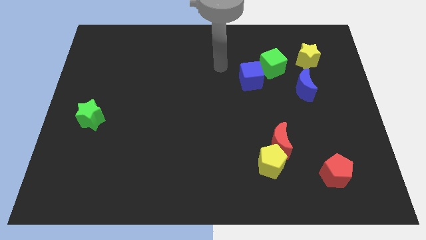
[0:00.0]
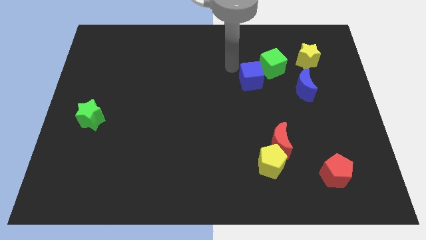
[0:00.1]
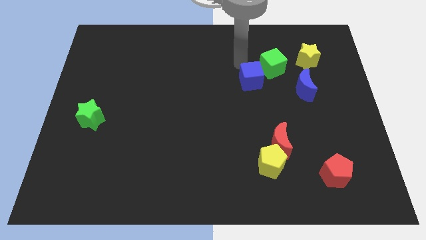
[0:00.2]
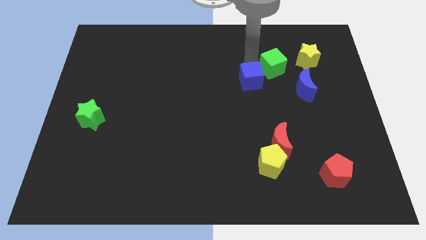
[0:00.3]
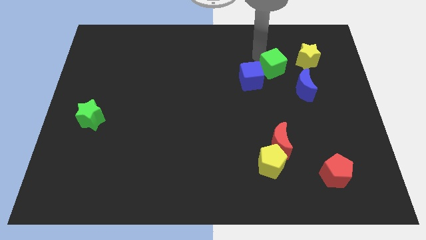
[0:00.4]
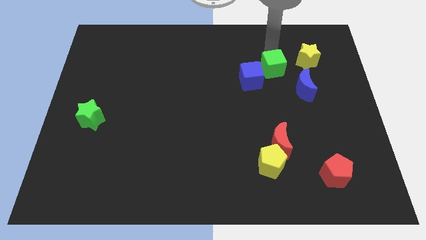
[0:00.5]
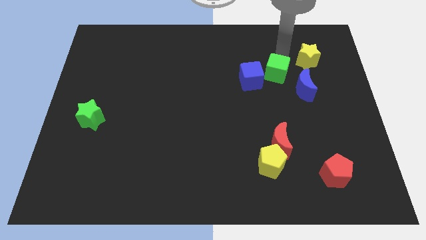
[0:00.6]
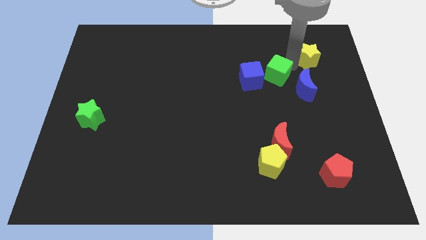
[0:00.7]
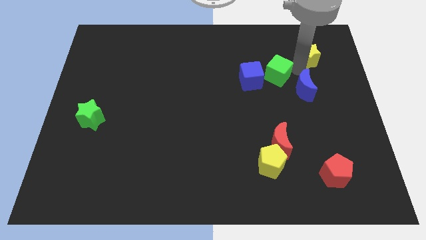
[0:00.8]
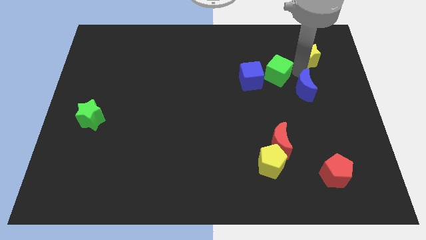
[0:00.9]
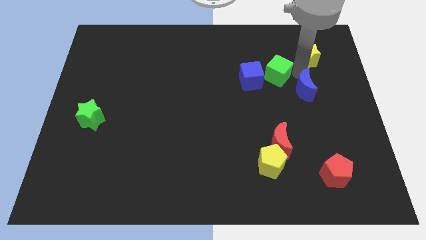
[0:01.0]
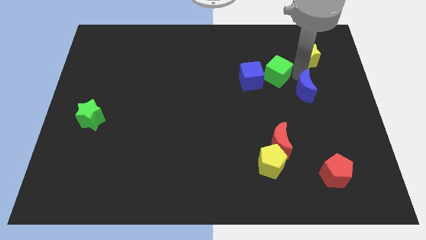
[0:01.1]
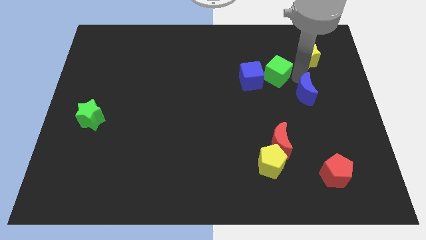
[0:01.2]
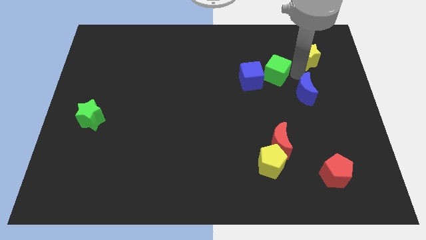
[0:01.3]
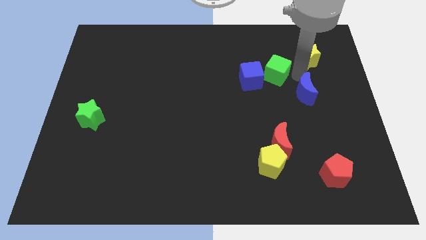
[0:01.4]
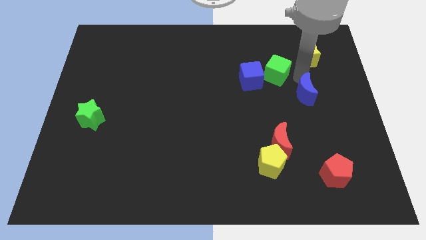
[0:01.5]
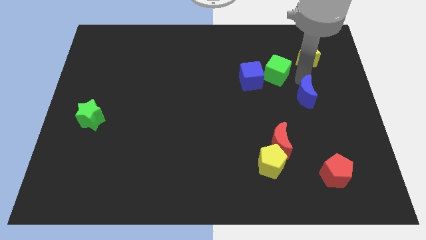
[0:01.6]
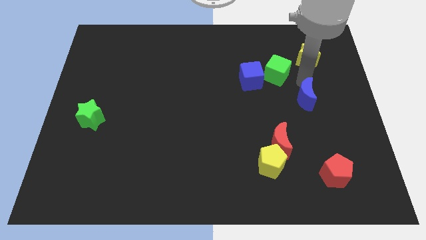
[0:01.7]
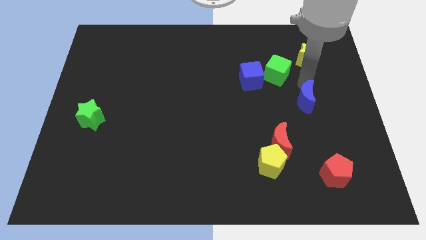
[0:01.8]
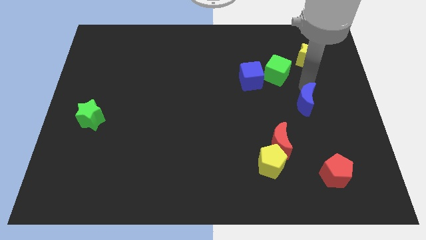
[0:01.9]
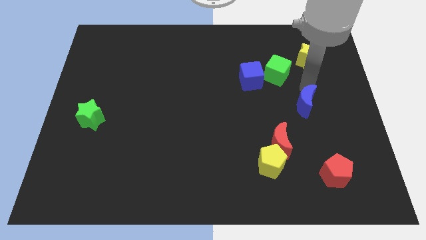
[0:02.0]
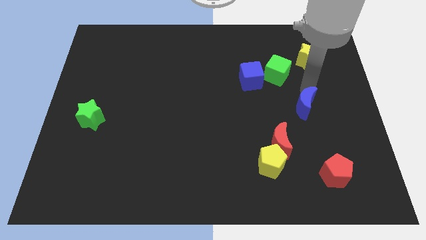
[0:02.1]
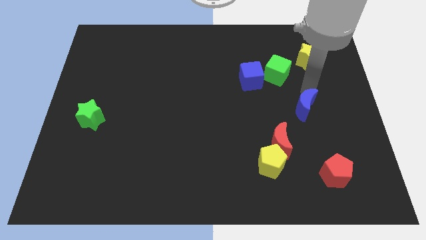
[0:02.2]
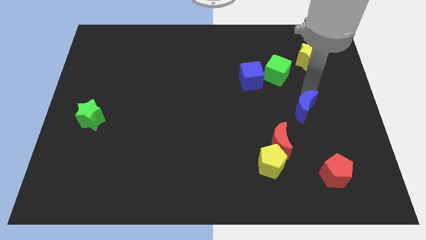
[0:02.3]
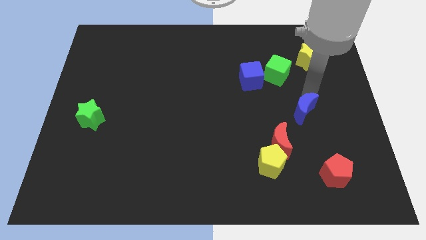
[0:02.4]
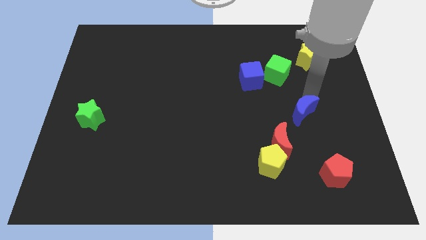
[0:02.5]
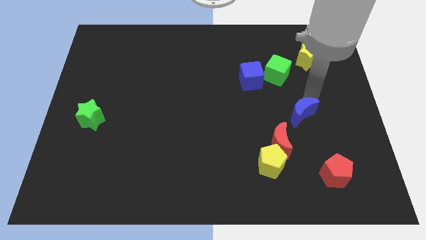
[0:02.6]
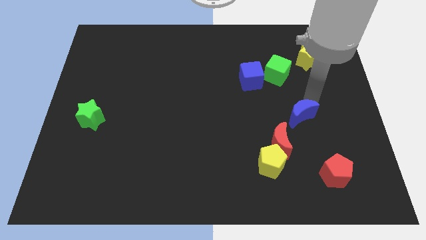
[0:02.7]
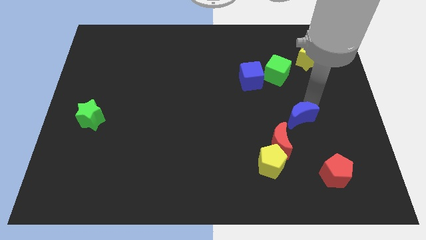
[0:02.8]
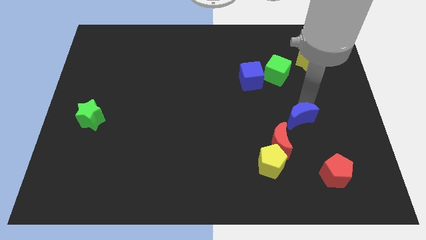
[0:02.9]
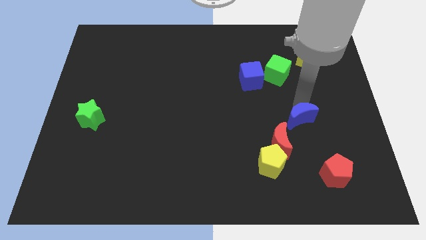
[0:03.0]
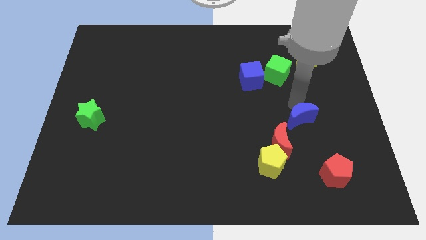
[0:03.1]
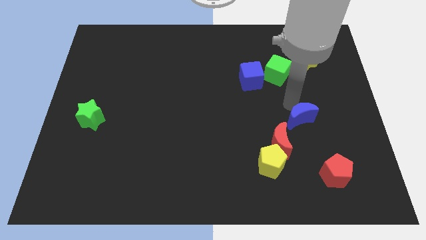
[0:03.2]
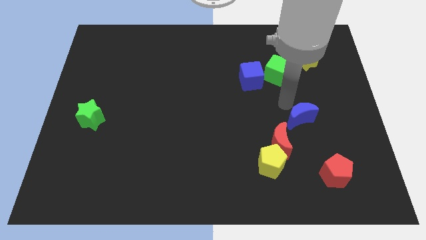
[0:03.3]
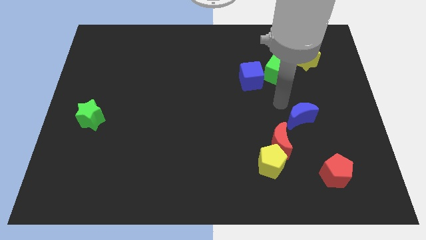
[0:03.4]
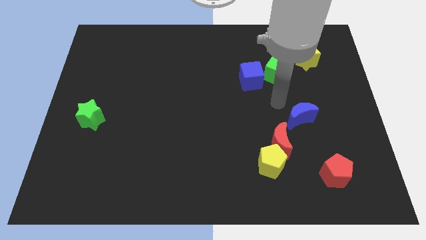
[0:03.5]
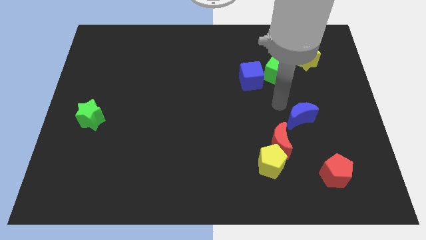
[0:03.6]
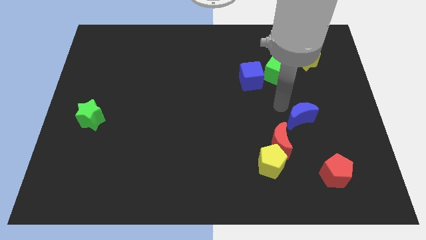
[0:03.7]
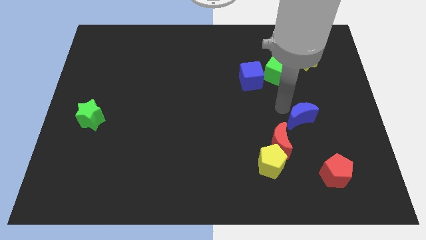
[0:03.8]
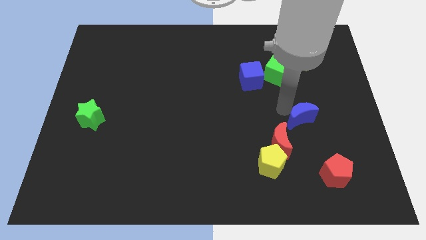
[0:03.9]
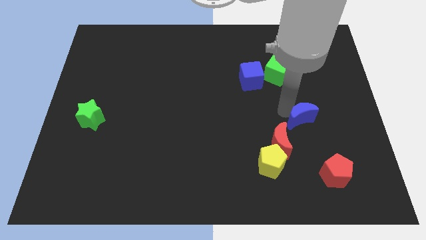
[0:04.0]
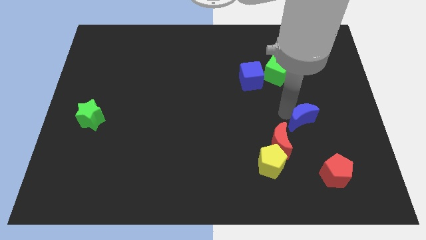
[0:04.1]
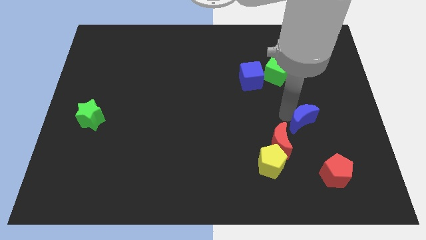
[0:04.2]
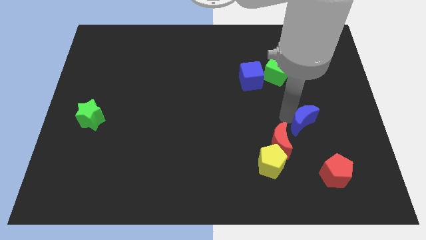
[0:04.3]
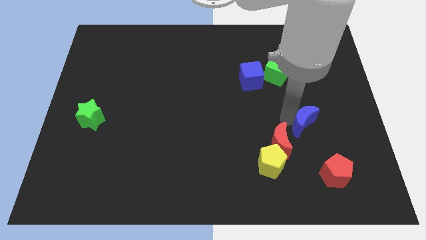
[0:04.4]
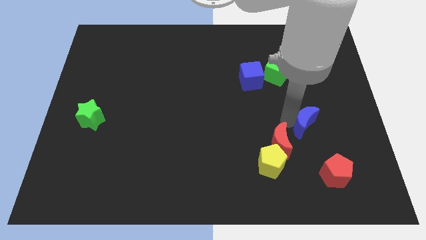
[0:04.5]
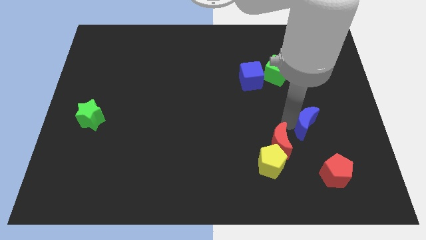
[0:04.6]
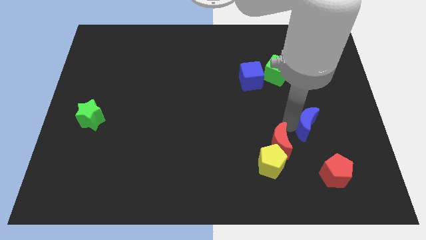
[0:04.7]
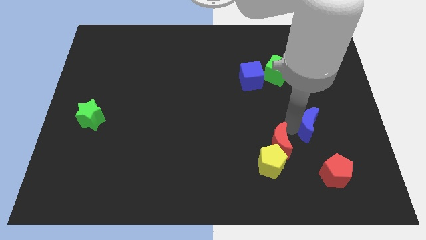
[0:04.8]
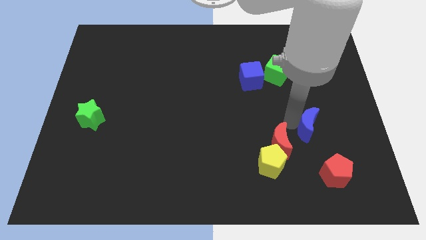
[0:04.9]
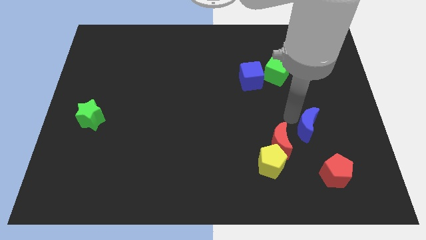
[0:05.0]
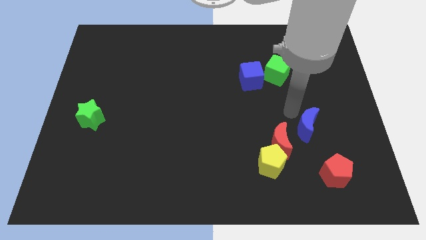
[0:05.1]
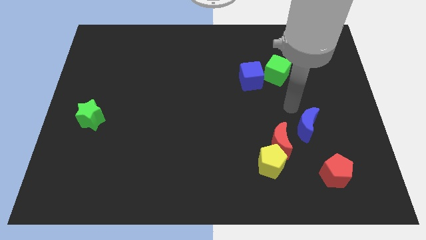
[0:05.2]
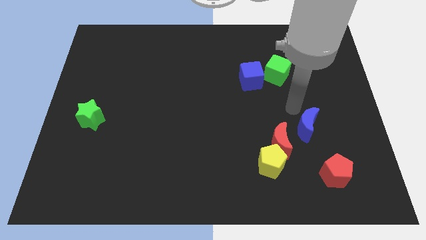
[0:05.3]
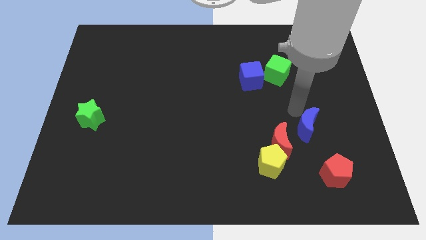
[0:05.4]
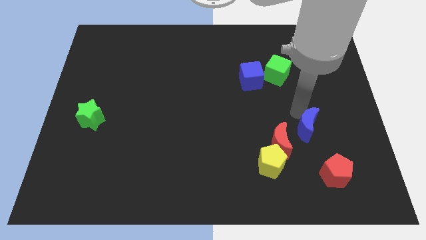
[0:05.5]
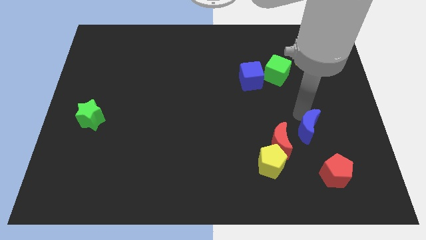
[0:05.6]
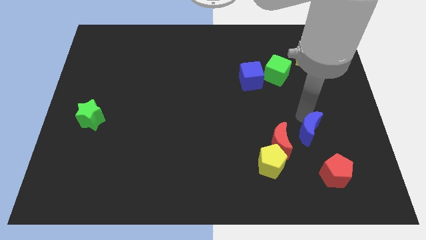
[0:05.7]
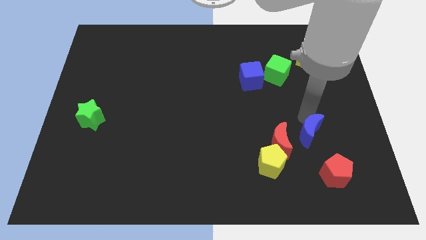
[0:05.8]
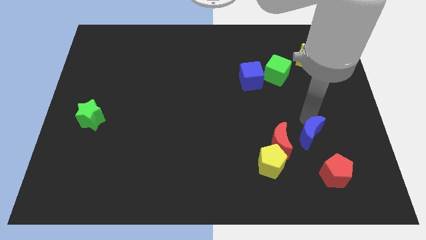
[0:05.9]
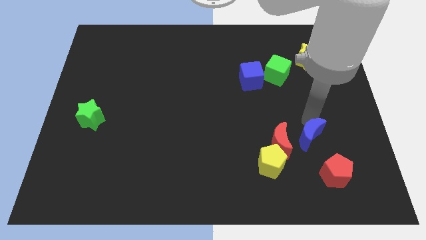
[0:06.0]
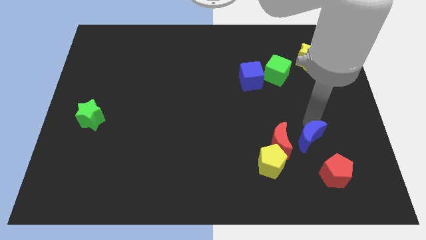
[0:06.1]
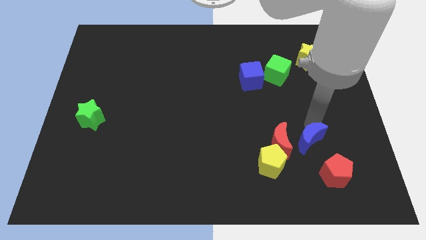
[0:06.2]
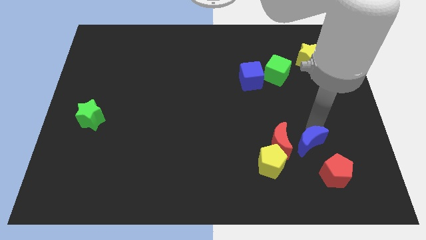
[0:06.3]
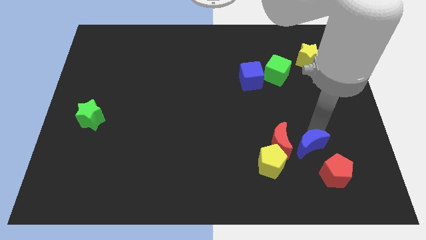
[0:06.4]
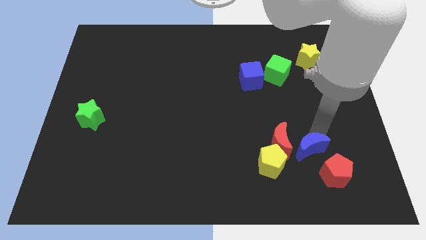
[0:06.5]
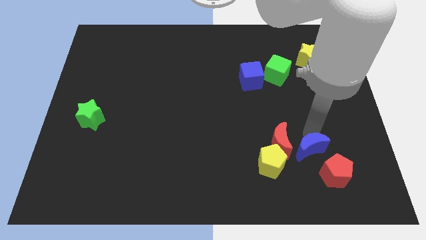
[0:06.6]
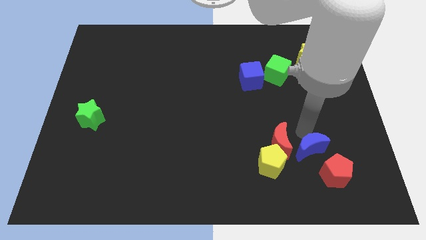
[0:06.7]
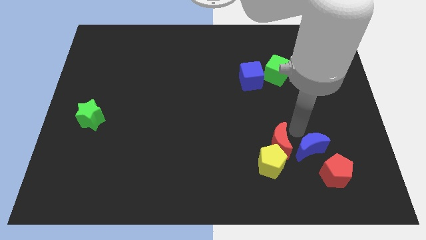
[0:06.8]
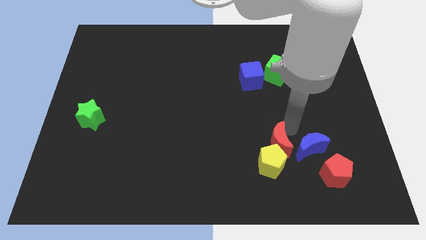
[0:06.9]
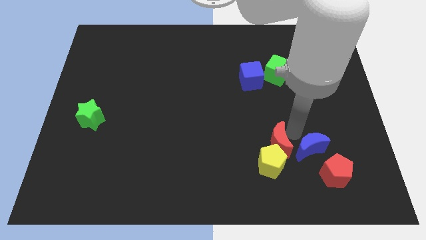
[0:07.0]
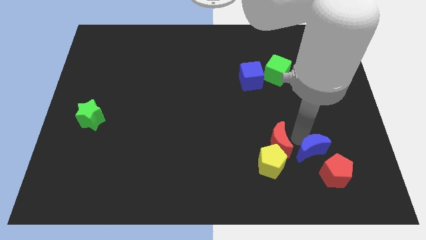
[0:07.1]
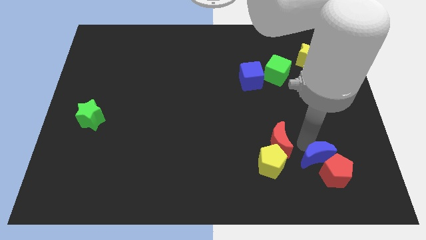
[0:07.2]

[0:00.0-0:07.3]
put the blue moon next to the red pentagon
